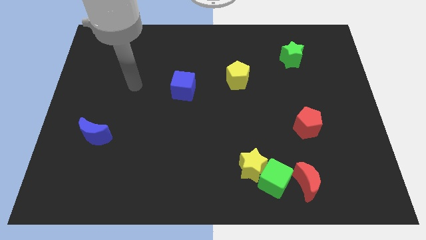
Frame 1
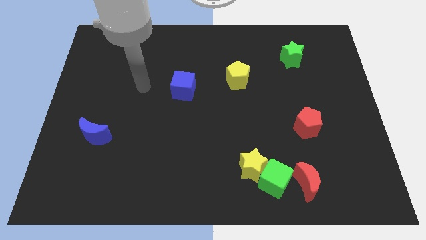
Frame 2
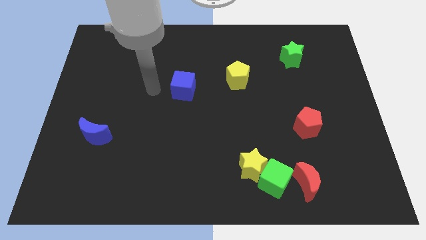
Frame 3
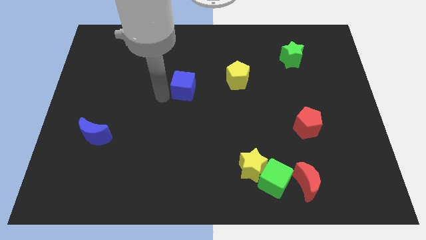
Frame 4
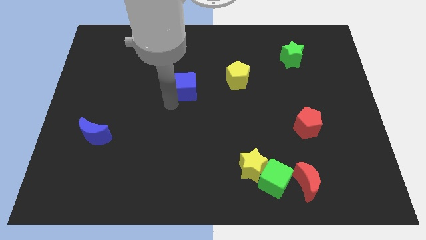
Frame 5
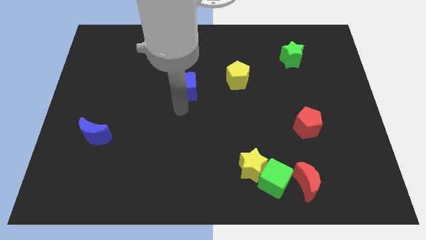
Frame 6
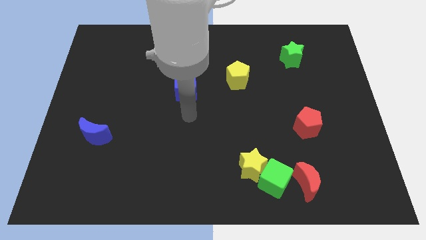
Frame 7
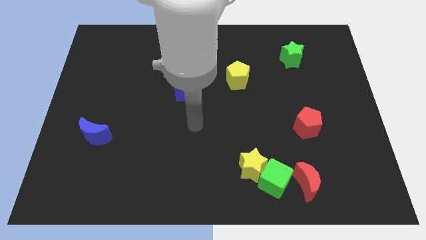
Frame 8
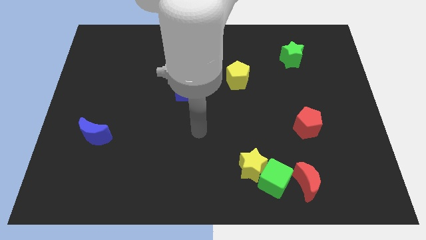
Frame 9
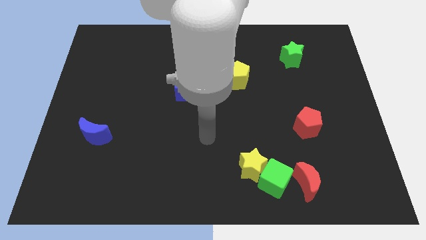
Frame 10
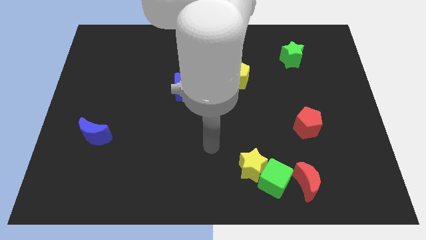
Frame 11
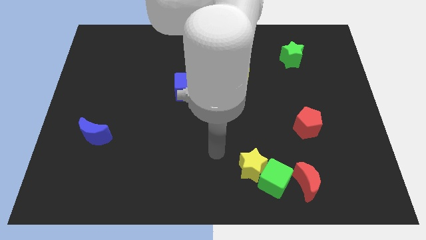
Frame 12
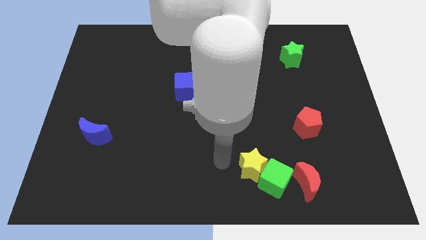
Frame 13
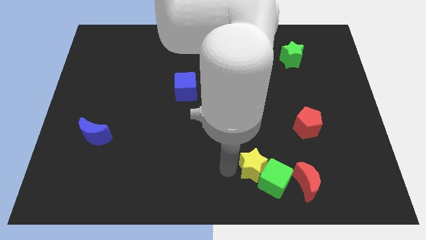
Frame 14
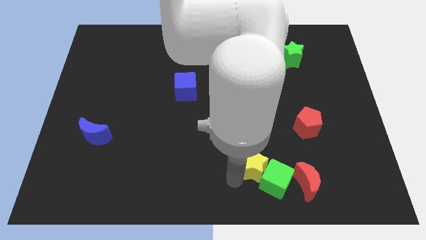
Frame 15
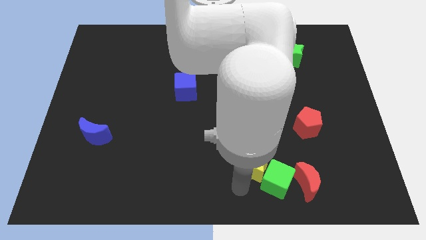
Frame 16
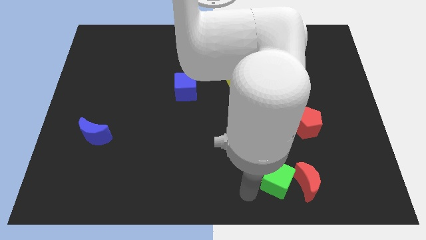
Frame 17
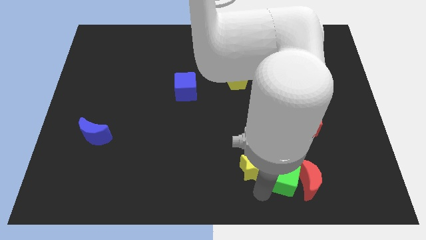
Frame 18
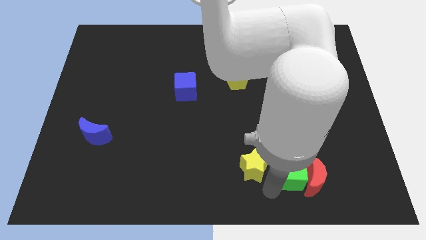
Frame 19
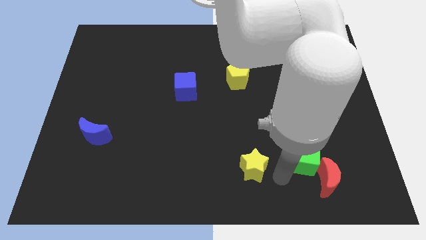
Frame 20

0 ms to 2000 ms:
separate the yellow star from the green cube

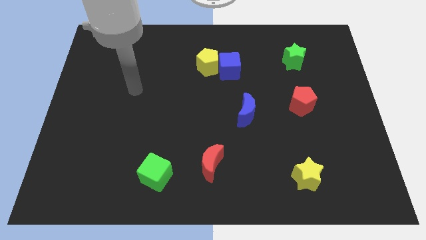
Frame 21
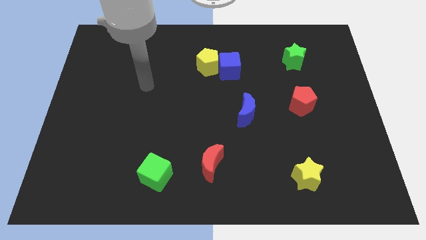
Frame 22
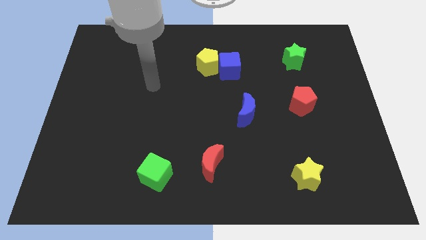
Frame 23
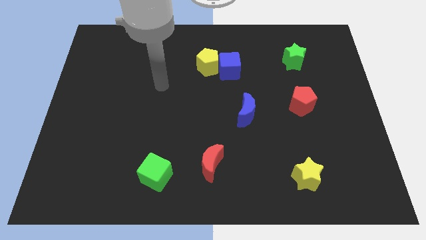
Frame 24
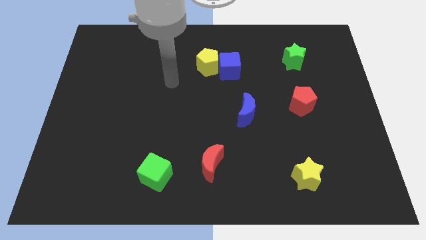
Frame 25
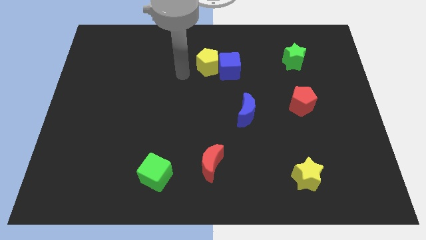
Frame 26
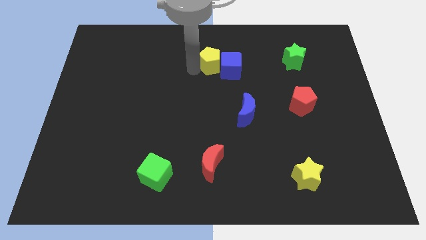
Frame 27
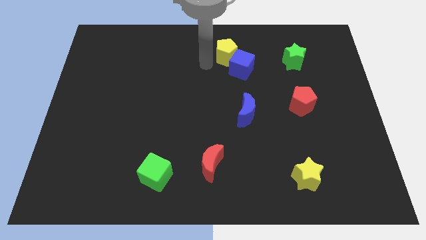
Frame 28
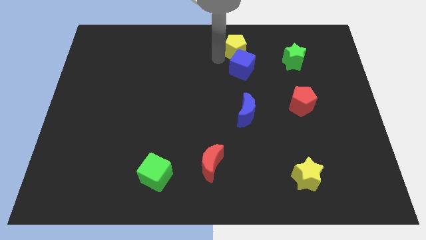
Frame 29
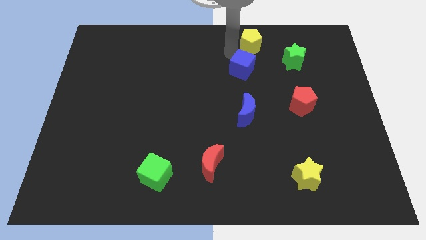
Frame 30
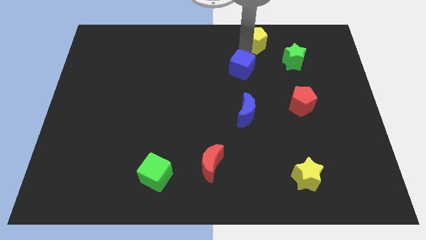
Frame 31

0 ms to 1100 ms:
pull the blue cube apart from the yellow pentagon

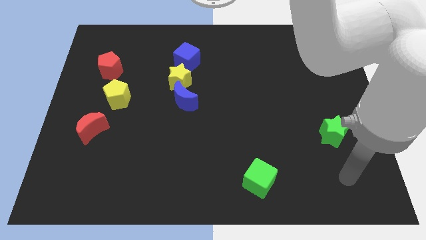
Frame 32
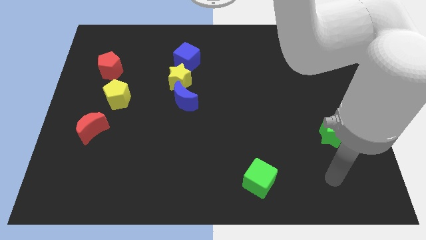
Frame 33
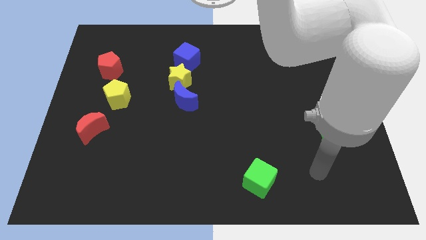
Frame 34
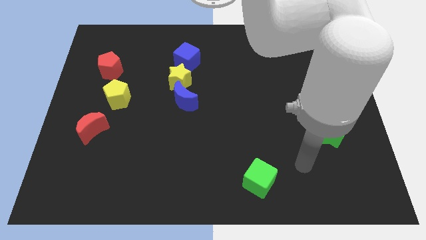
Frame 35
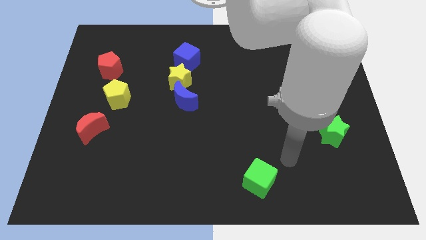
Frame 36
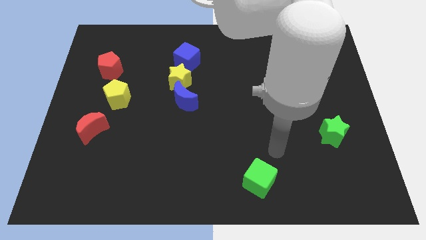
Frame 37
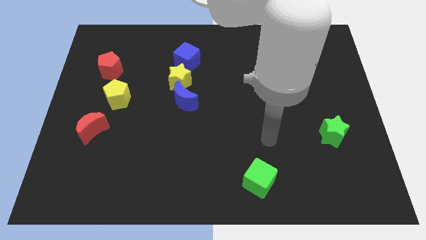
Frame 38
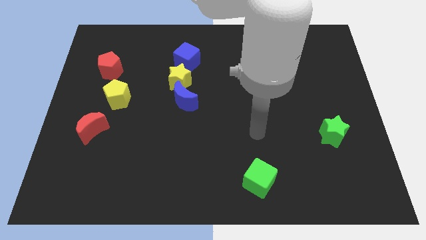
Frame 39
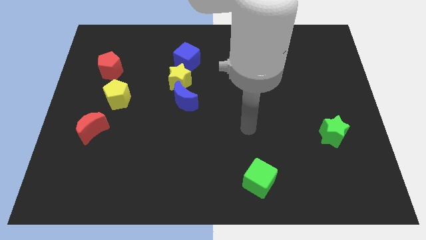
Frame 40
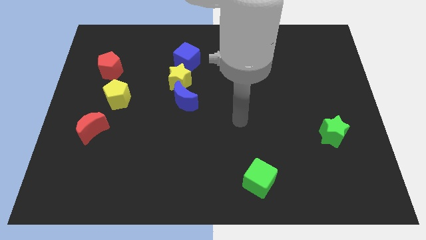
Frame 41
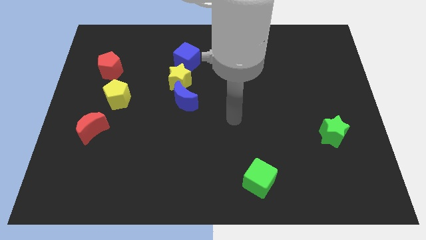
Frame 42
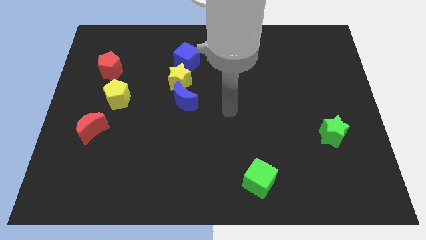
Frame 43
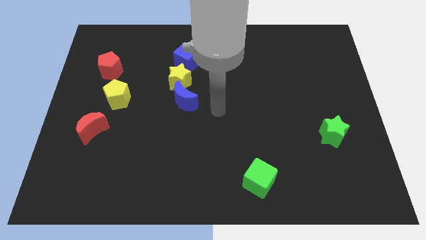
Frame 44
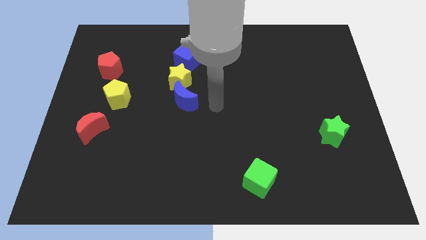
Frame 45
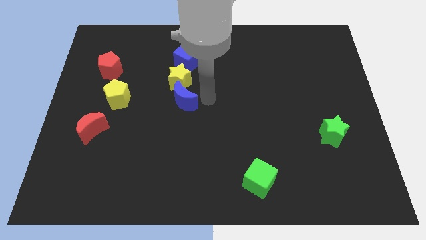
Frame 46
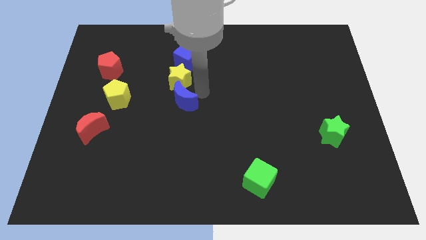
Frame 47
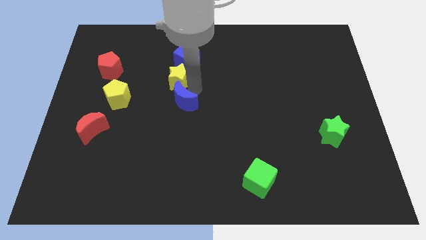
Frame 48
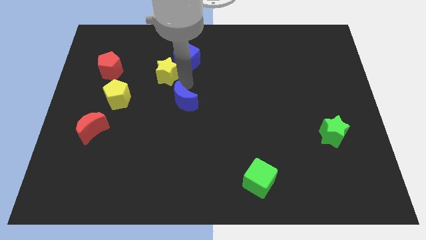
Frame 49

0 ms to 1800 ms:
move the blue moon away from the yellow star

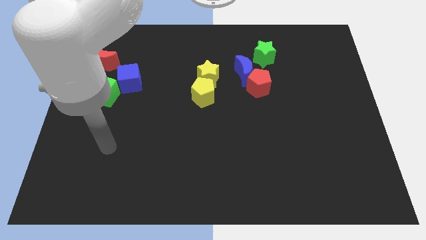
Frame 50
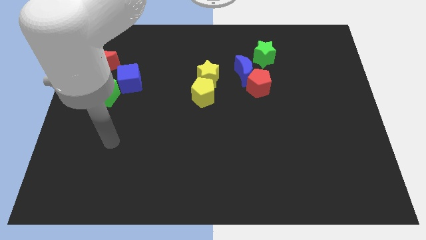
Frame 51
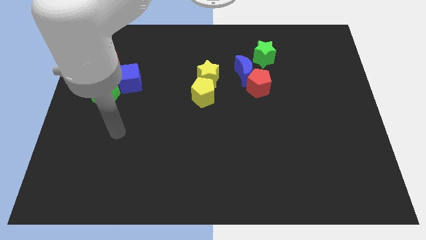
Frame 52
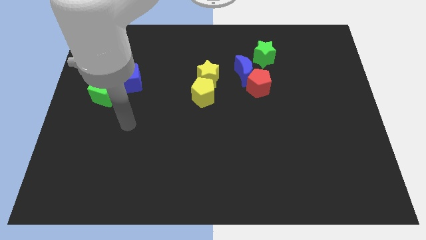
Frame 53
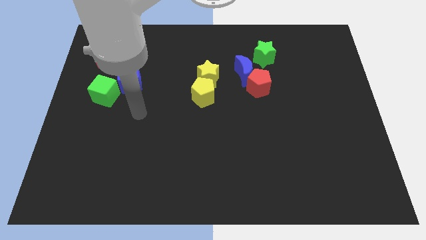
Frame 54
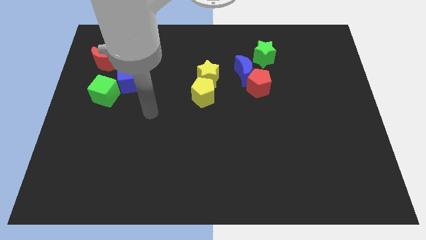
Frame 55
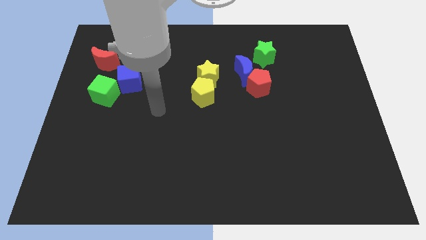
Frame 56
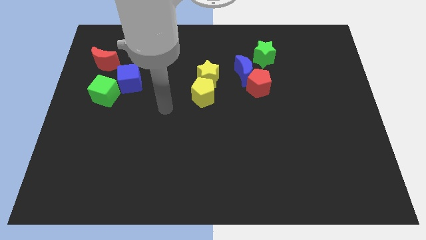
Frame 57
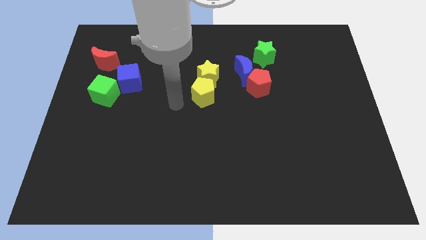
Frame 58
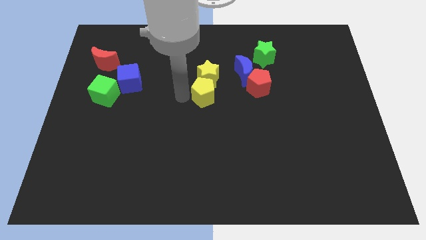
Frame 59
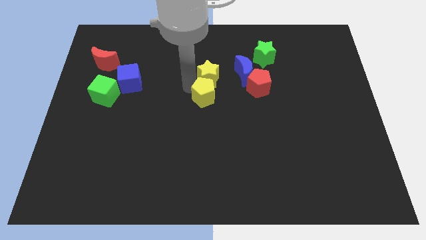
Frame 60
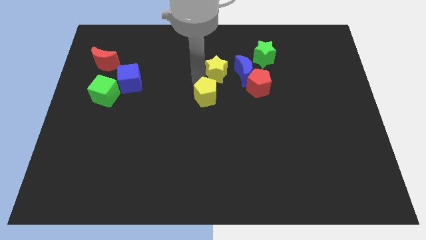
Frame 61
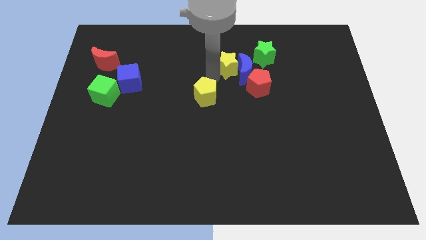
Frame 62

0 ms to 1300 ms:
move the yellow pentagon away from the yellow star

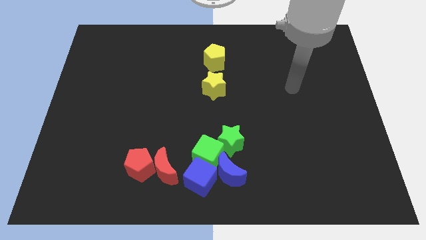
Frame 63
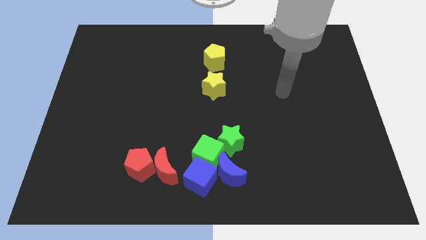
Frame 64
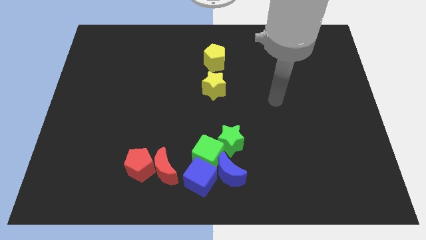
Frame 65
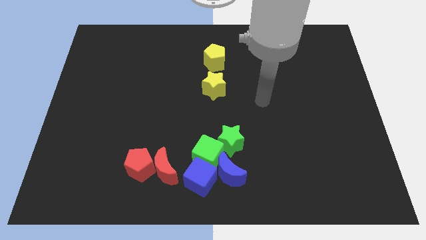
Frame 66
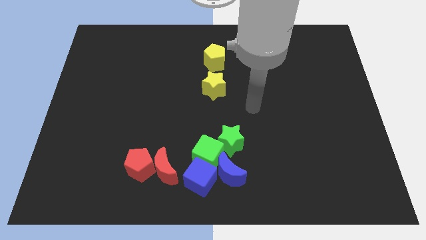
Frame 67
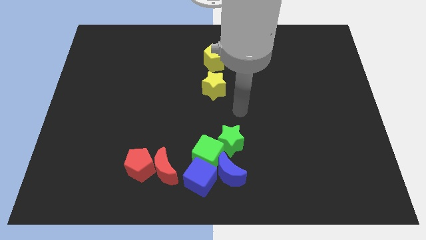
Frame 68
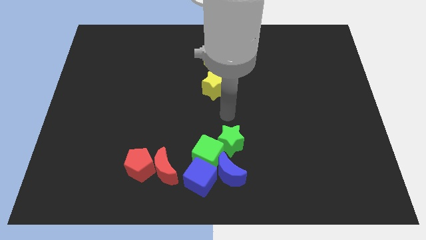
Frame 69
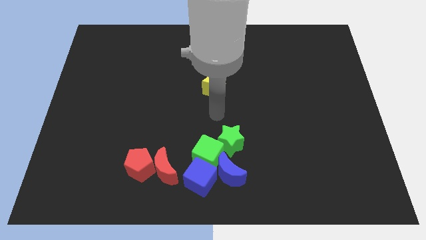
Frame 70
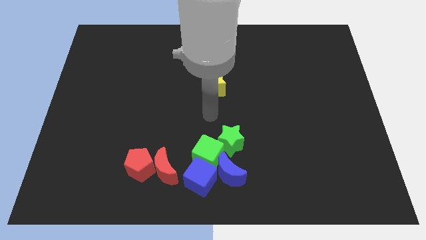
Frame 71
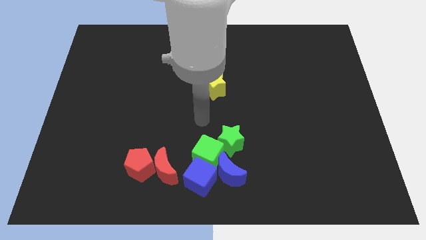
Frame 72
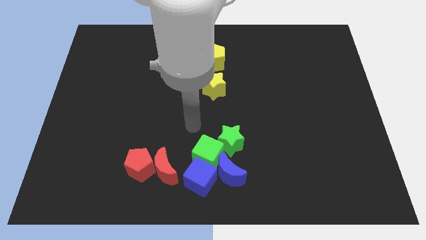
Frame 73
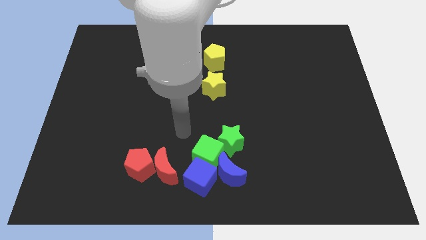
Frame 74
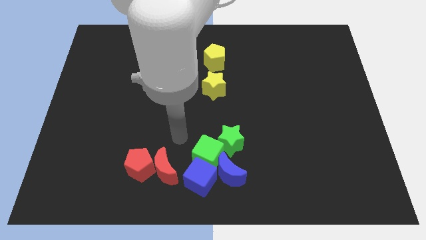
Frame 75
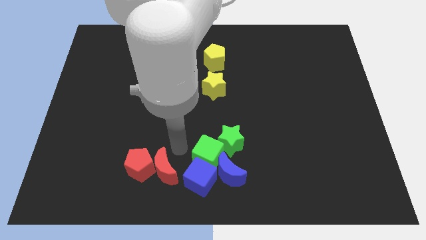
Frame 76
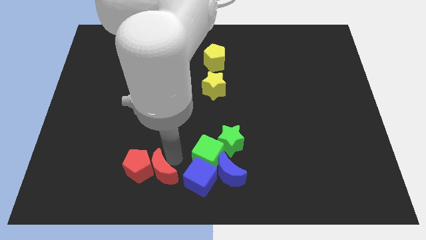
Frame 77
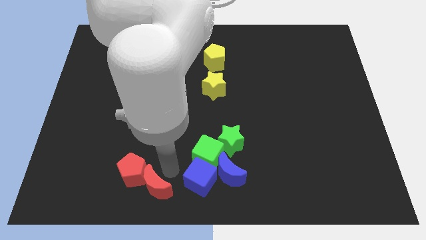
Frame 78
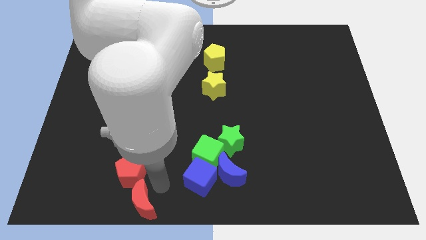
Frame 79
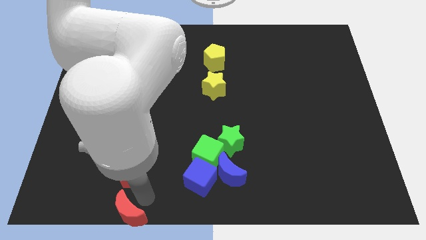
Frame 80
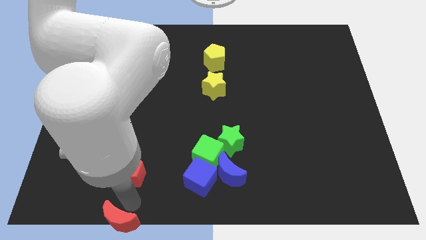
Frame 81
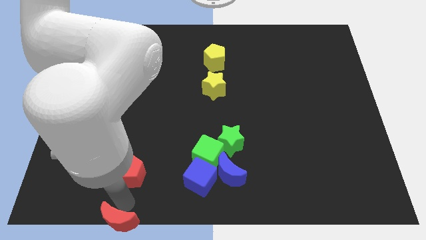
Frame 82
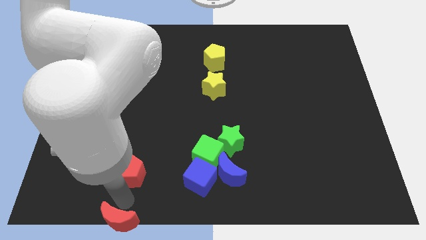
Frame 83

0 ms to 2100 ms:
separate the red pentagon from the red moon

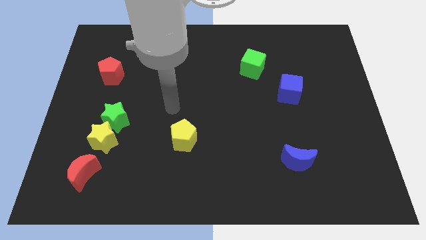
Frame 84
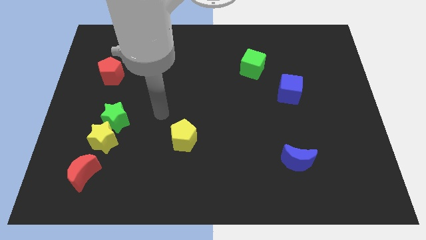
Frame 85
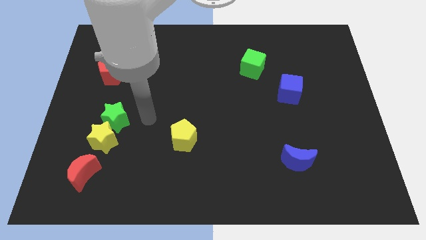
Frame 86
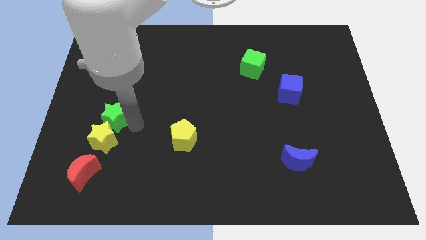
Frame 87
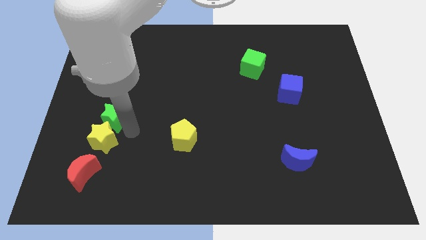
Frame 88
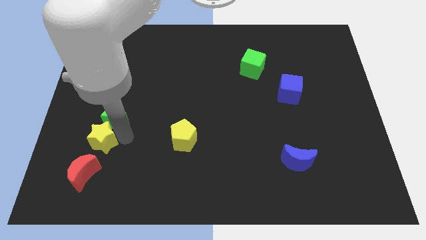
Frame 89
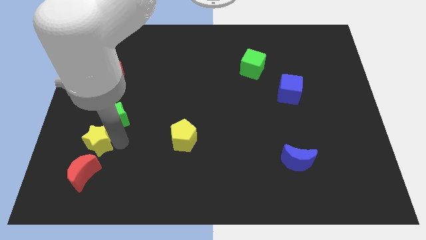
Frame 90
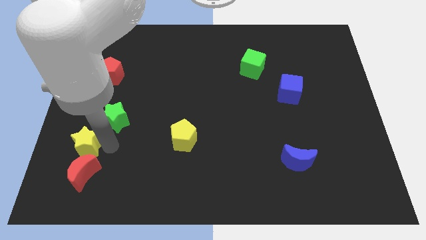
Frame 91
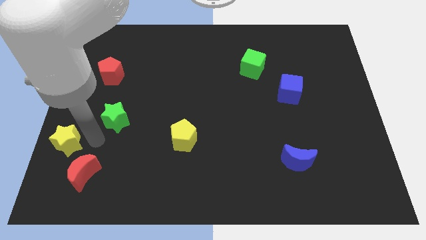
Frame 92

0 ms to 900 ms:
separate the green star from the yellow star
